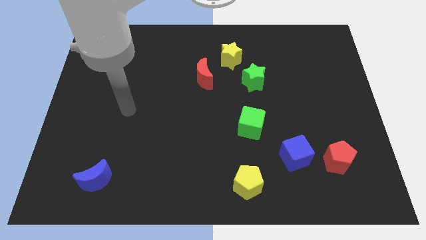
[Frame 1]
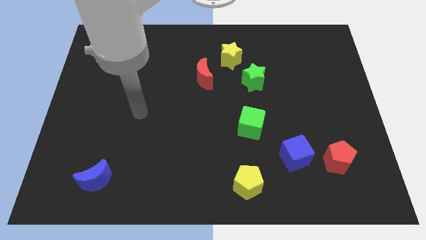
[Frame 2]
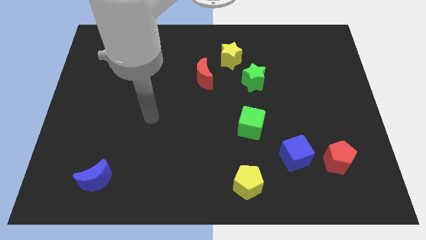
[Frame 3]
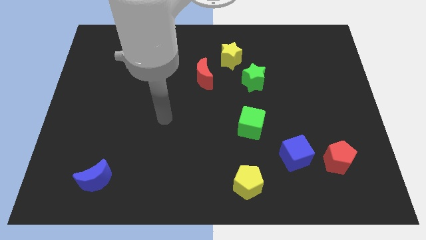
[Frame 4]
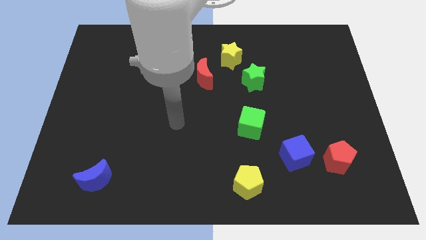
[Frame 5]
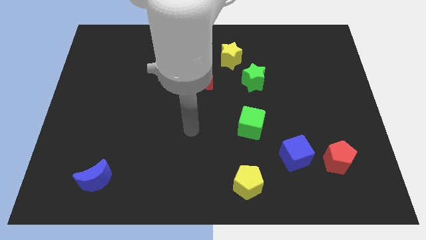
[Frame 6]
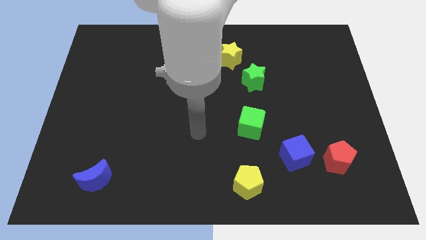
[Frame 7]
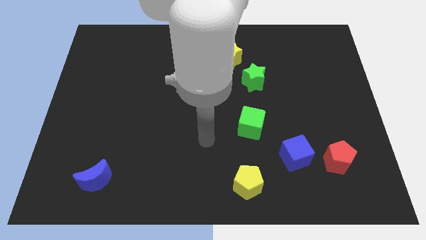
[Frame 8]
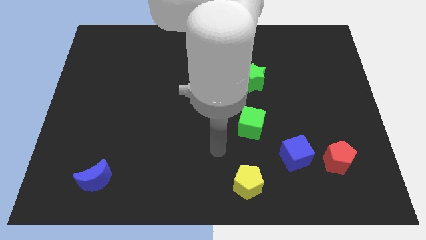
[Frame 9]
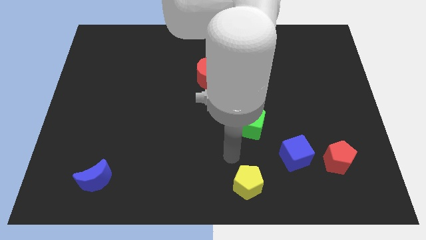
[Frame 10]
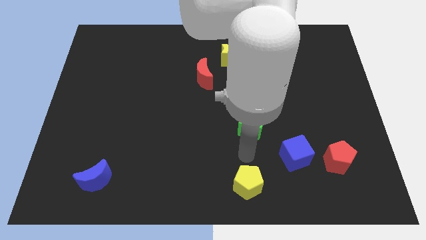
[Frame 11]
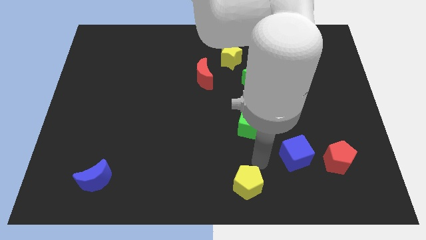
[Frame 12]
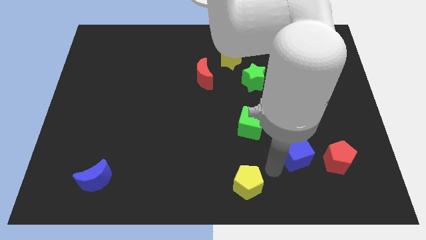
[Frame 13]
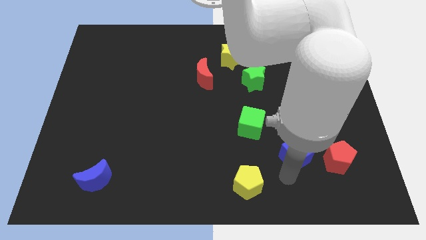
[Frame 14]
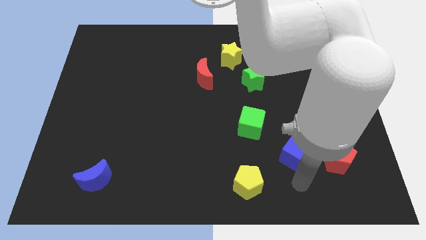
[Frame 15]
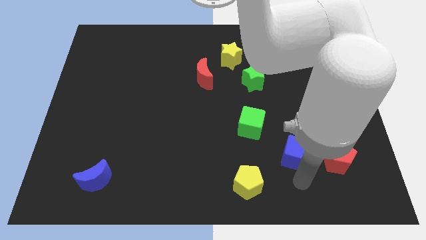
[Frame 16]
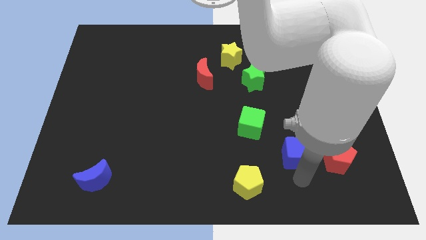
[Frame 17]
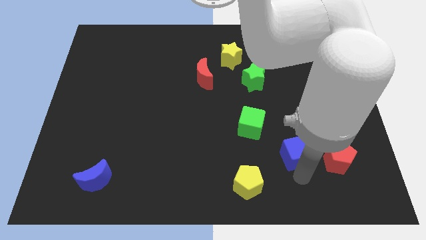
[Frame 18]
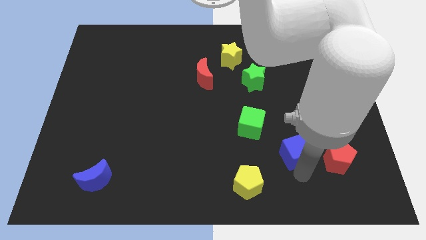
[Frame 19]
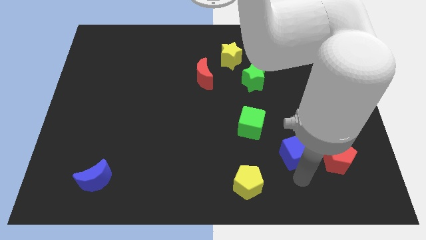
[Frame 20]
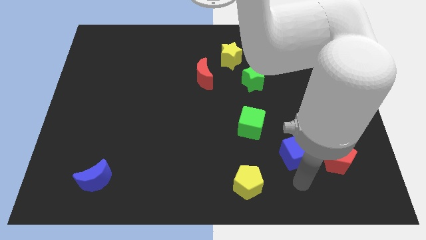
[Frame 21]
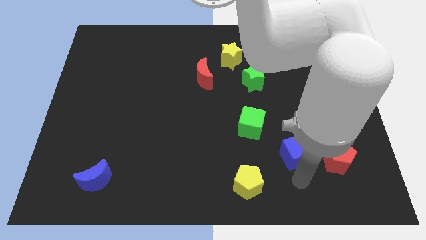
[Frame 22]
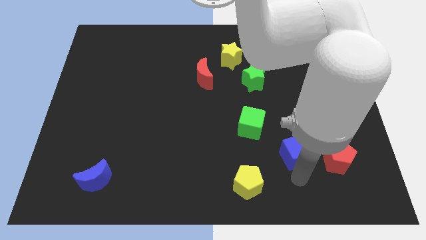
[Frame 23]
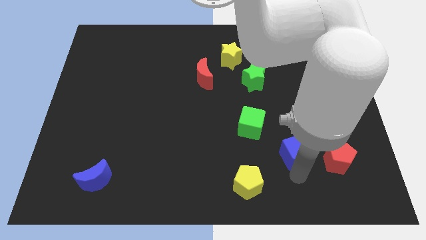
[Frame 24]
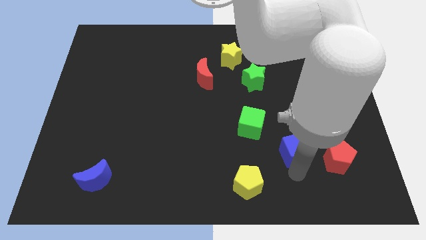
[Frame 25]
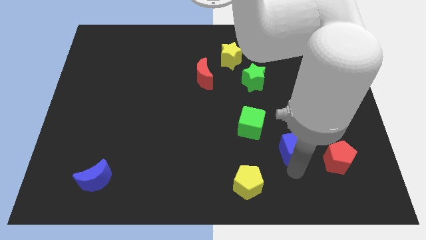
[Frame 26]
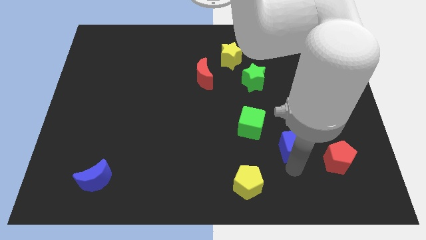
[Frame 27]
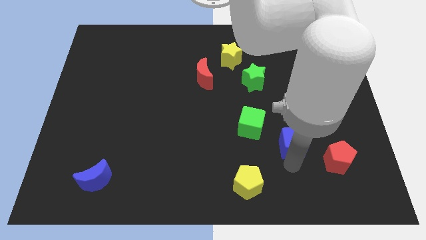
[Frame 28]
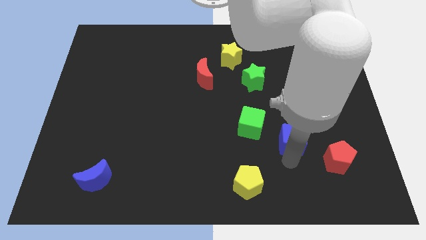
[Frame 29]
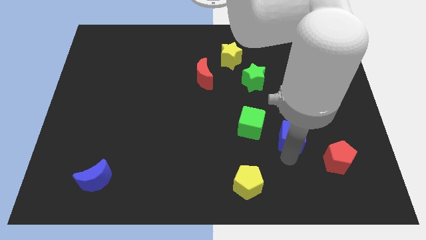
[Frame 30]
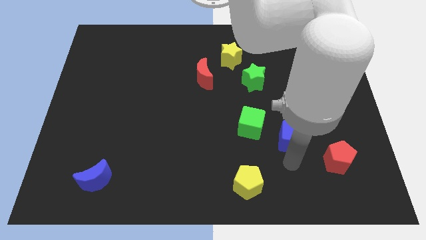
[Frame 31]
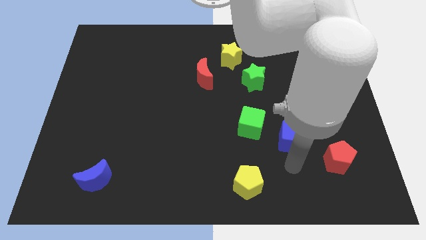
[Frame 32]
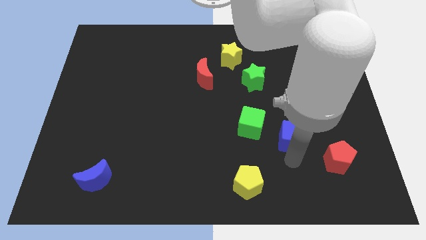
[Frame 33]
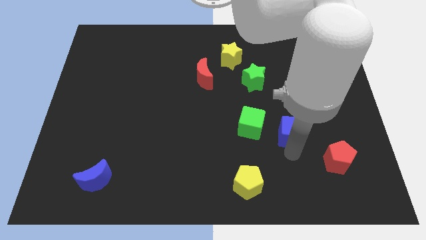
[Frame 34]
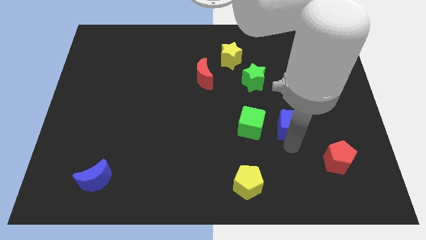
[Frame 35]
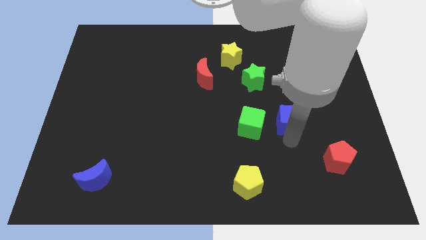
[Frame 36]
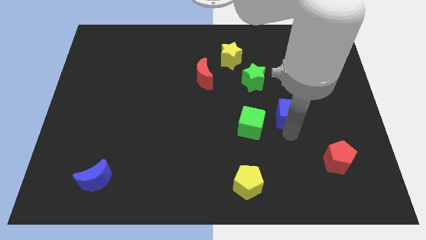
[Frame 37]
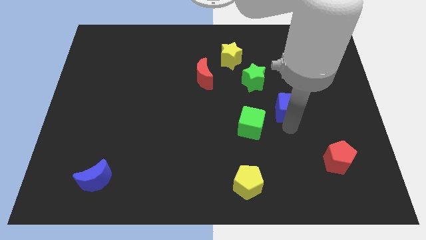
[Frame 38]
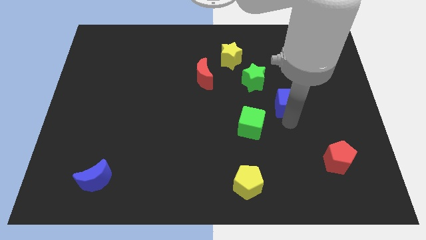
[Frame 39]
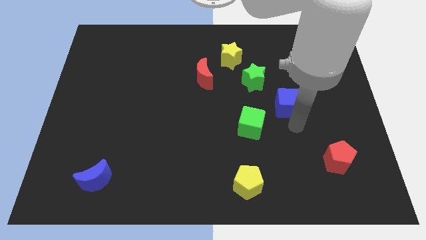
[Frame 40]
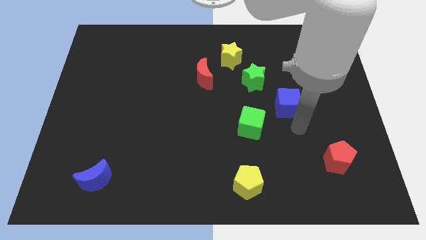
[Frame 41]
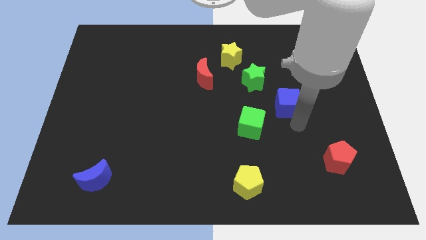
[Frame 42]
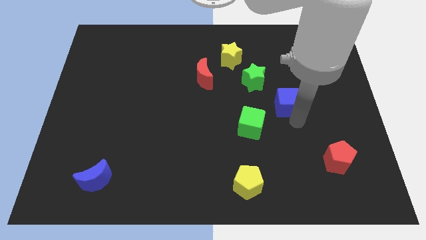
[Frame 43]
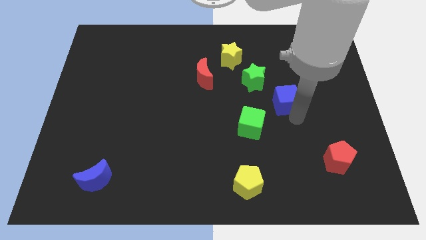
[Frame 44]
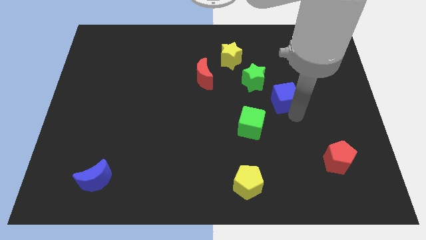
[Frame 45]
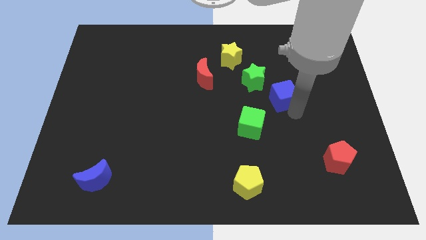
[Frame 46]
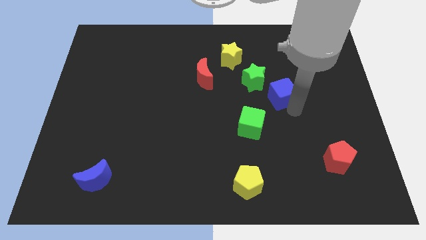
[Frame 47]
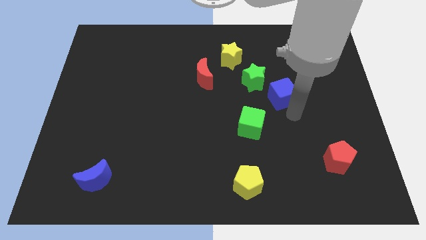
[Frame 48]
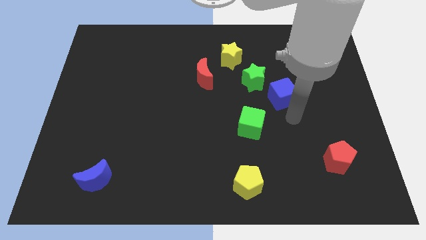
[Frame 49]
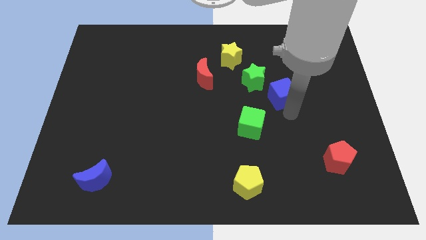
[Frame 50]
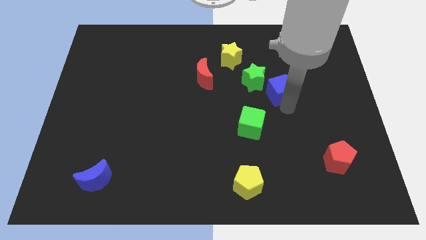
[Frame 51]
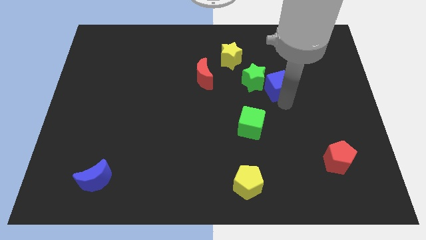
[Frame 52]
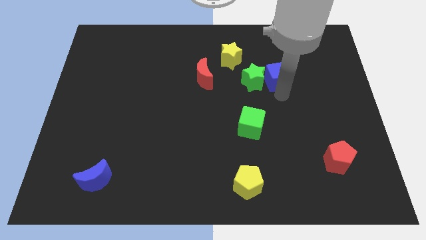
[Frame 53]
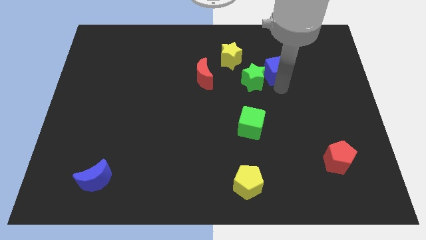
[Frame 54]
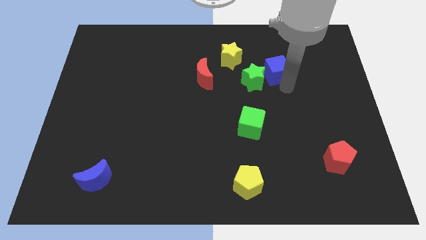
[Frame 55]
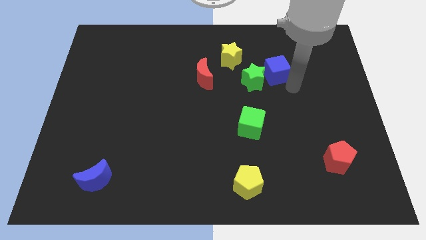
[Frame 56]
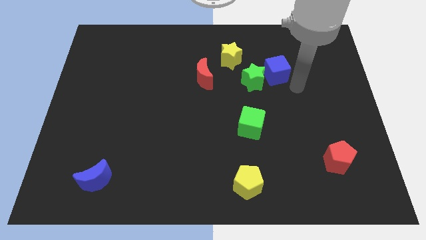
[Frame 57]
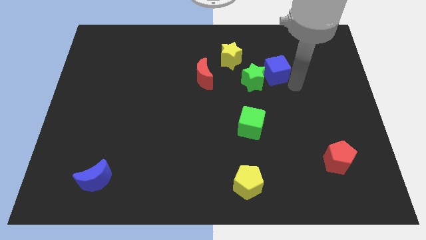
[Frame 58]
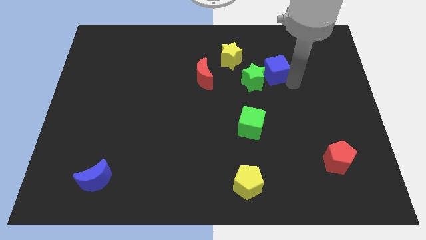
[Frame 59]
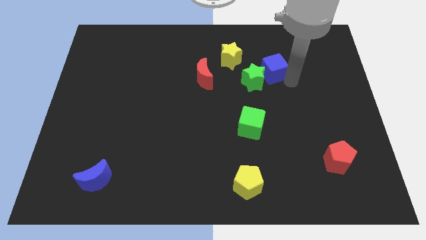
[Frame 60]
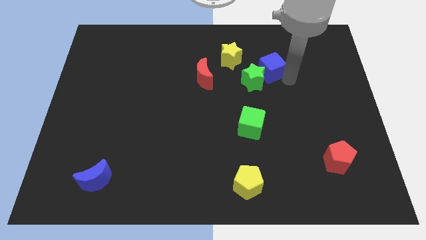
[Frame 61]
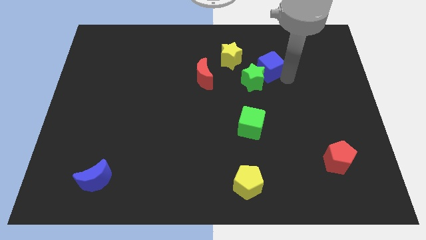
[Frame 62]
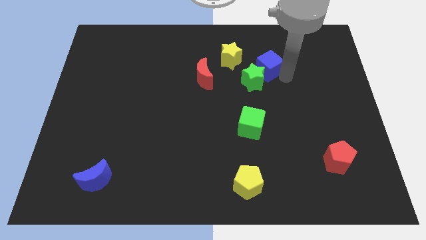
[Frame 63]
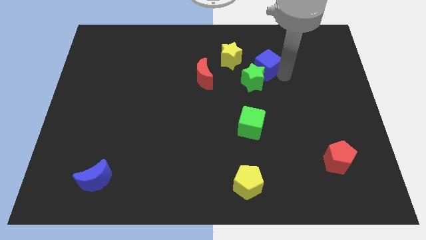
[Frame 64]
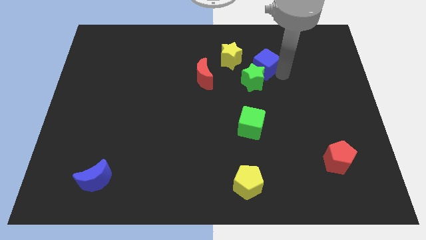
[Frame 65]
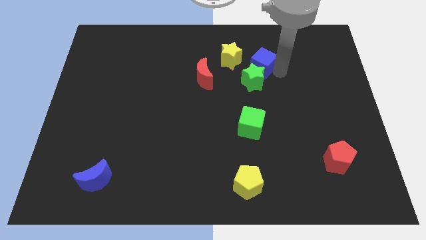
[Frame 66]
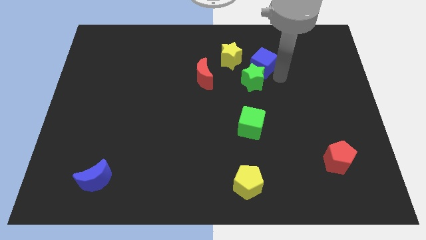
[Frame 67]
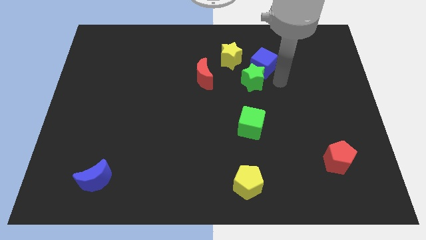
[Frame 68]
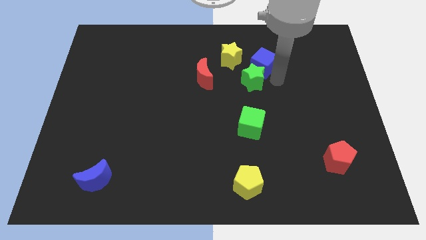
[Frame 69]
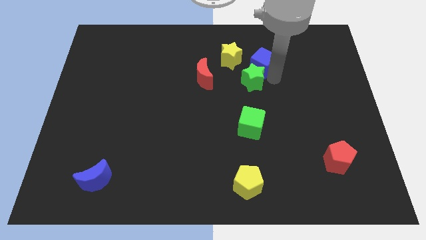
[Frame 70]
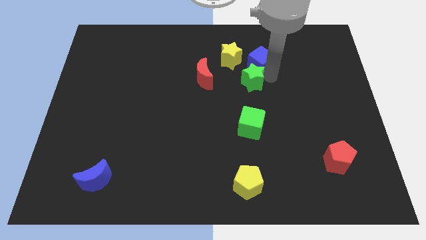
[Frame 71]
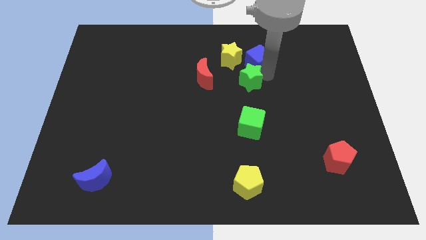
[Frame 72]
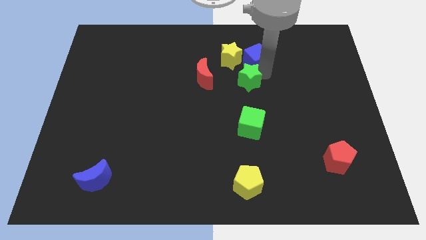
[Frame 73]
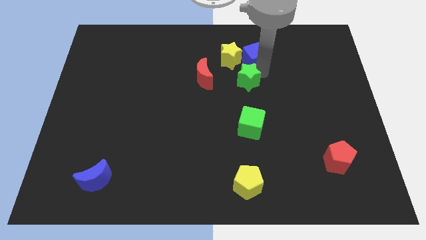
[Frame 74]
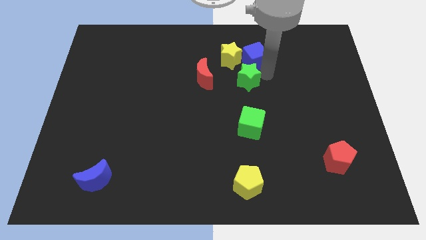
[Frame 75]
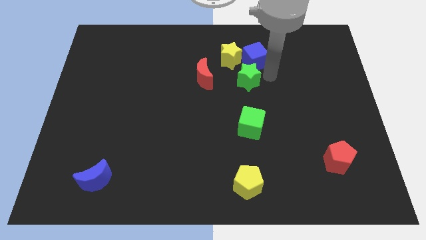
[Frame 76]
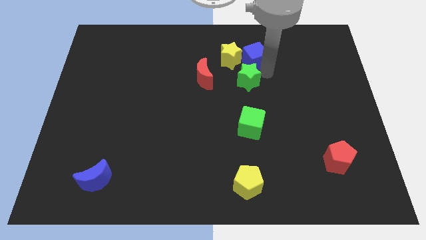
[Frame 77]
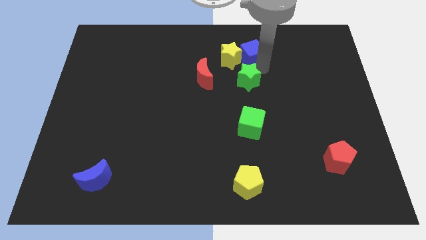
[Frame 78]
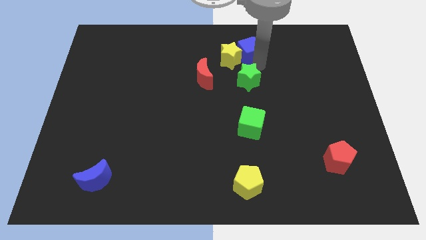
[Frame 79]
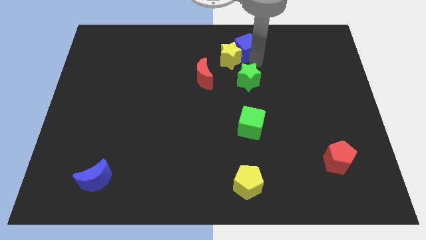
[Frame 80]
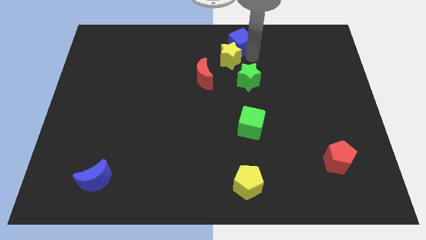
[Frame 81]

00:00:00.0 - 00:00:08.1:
push the blue cube to the towards your base
